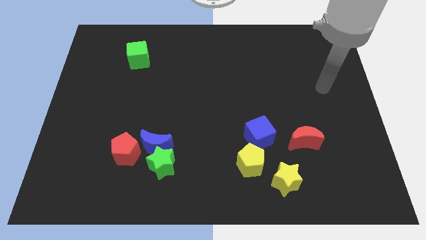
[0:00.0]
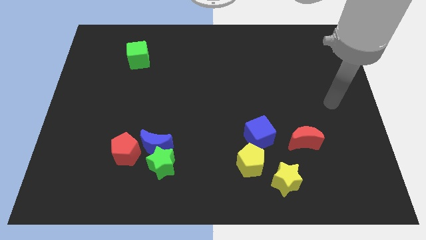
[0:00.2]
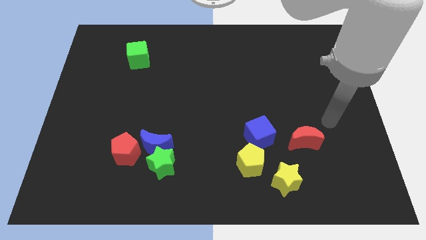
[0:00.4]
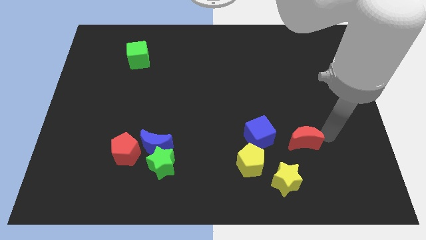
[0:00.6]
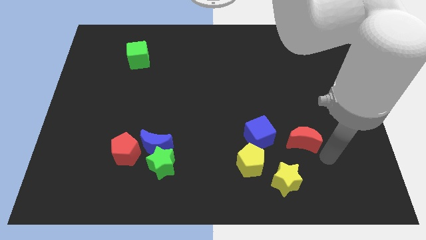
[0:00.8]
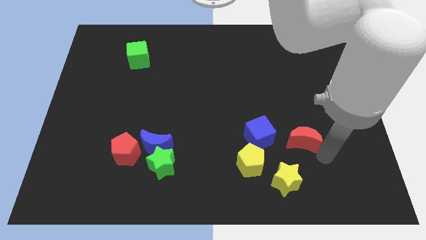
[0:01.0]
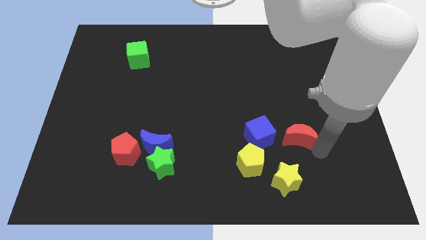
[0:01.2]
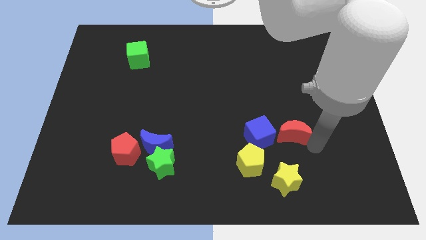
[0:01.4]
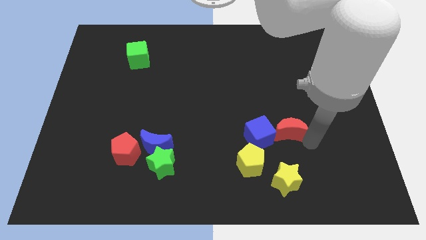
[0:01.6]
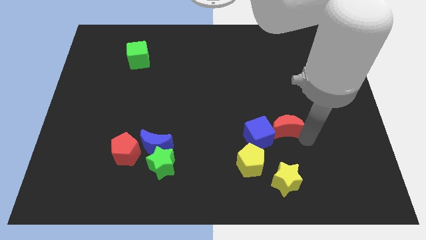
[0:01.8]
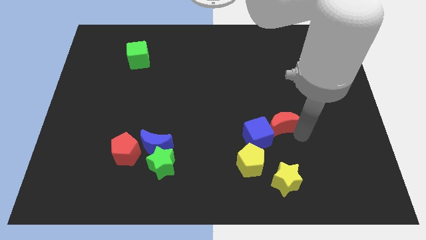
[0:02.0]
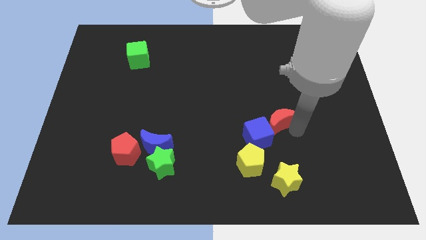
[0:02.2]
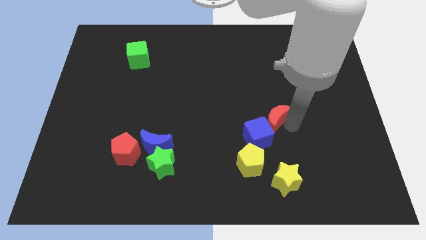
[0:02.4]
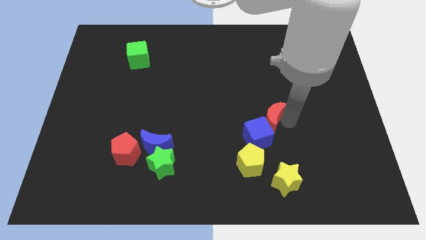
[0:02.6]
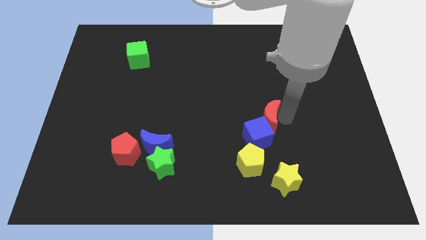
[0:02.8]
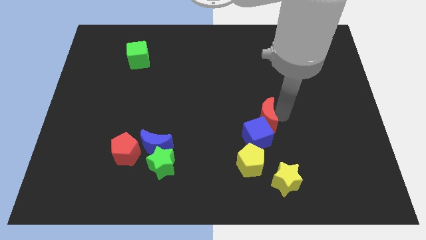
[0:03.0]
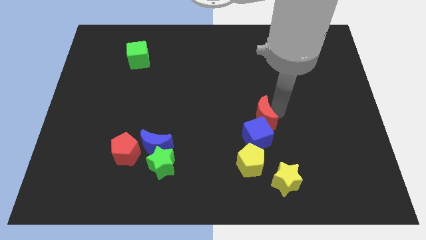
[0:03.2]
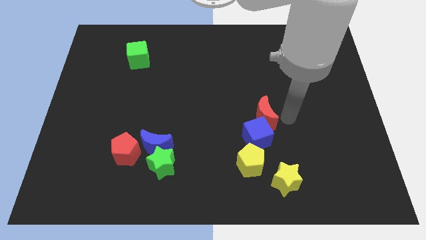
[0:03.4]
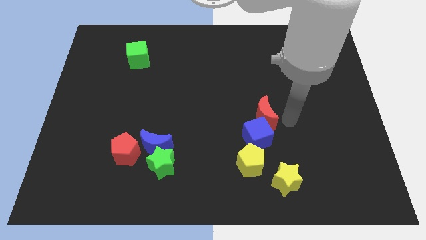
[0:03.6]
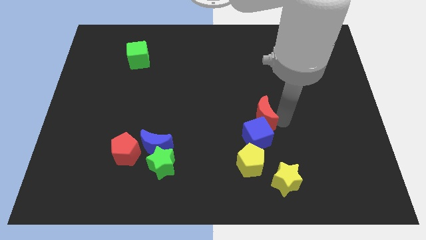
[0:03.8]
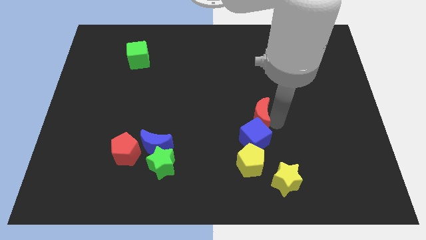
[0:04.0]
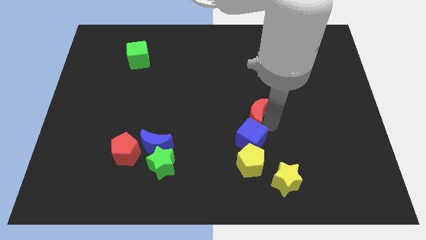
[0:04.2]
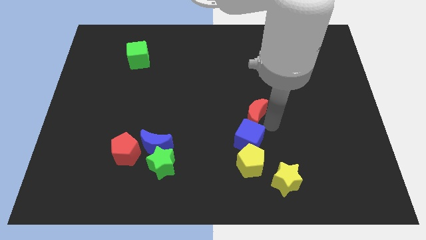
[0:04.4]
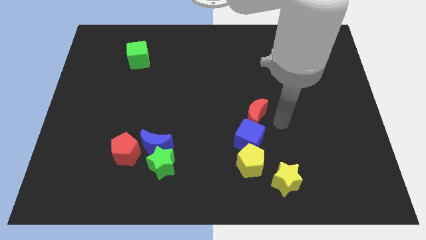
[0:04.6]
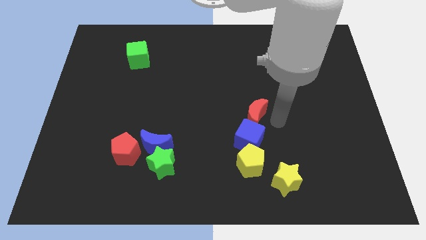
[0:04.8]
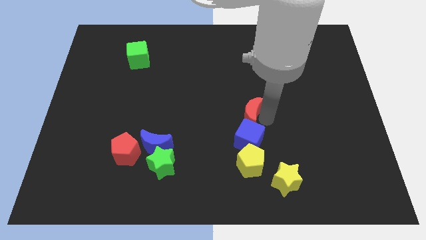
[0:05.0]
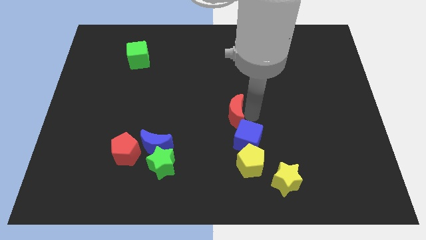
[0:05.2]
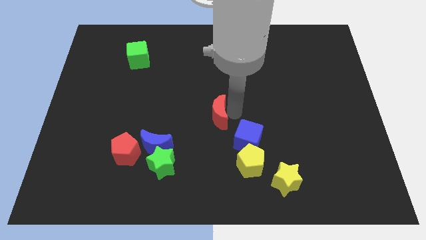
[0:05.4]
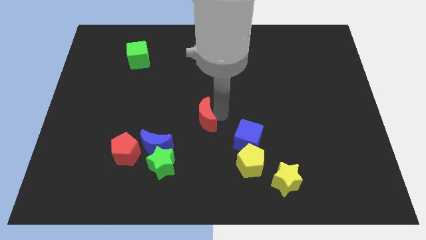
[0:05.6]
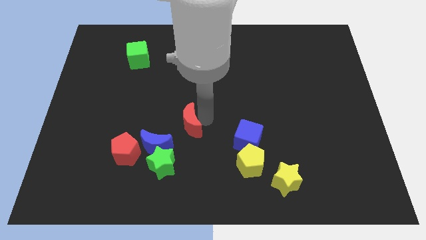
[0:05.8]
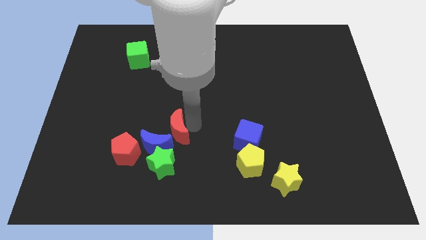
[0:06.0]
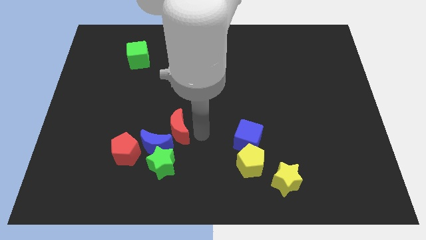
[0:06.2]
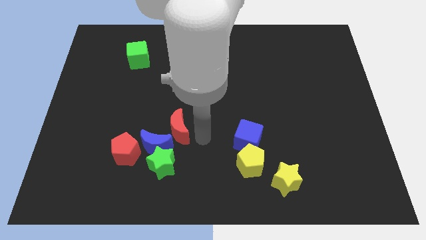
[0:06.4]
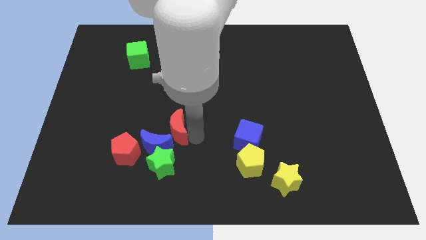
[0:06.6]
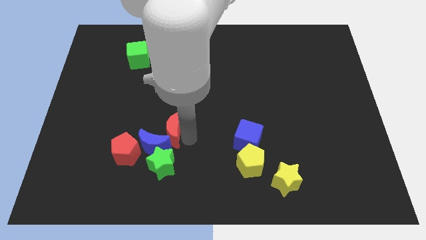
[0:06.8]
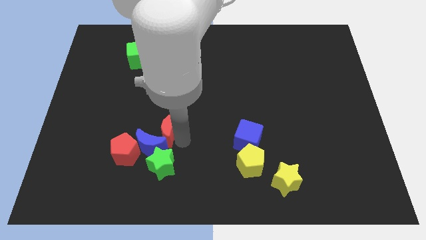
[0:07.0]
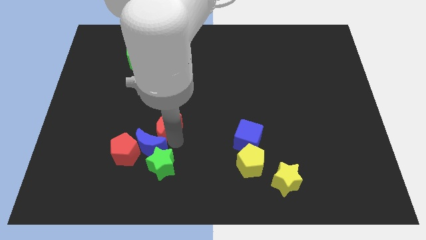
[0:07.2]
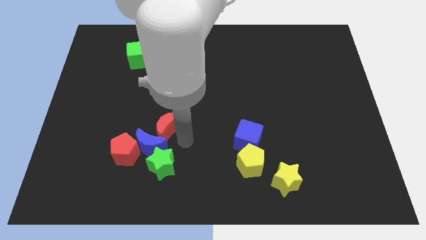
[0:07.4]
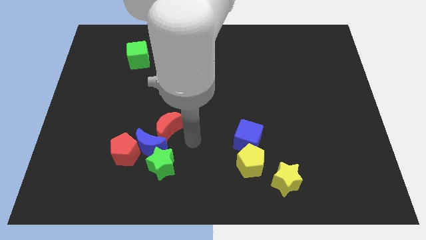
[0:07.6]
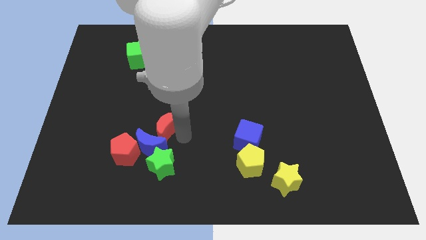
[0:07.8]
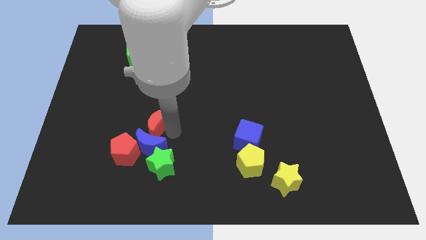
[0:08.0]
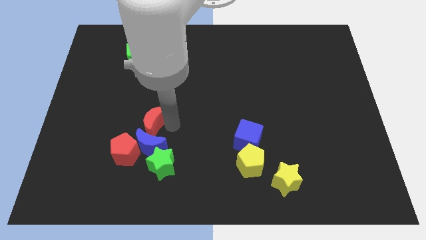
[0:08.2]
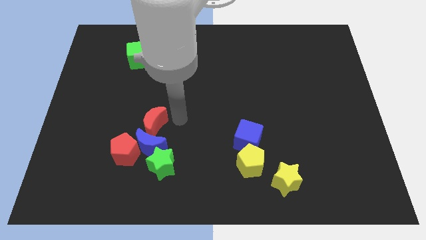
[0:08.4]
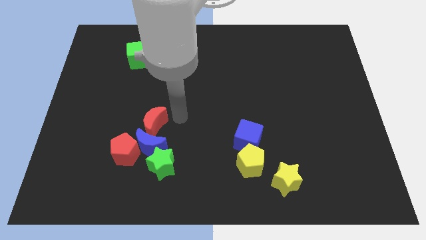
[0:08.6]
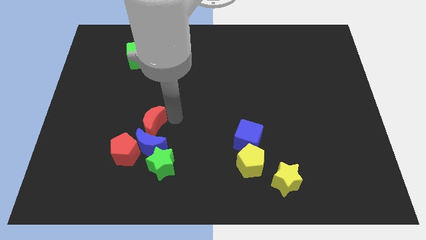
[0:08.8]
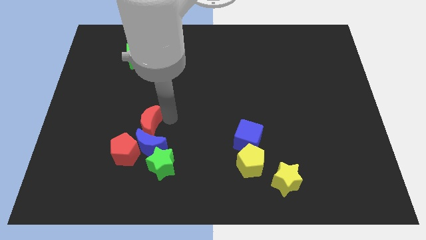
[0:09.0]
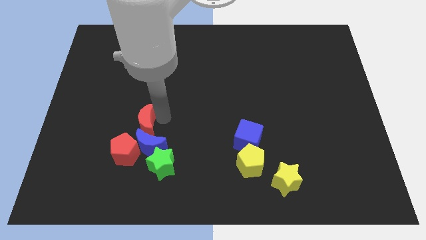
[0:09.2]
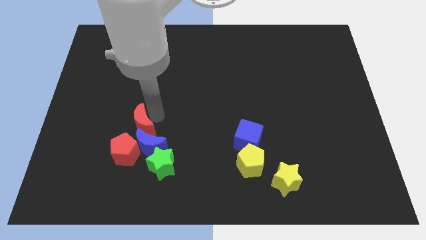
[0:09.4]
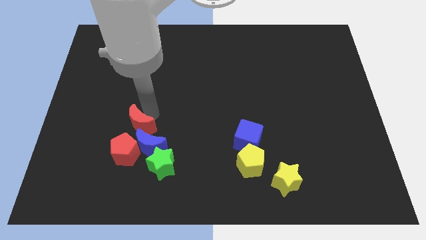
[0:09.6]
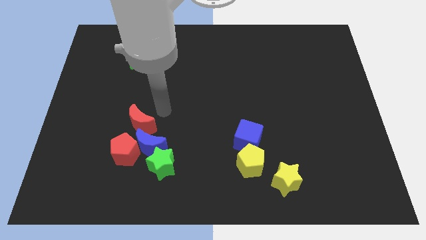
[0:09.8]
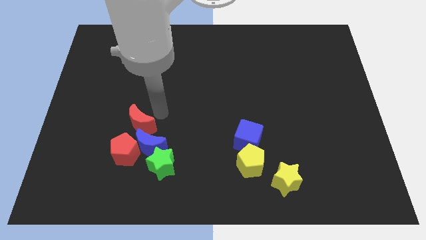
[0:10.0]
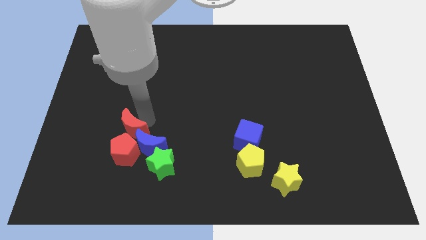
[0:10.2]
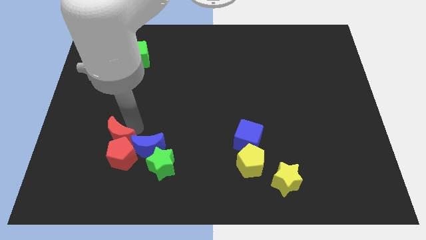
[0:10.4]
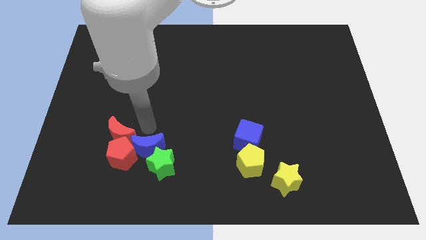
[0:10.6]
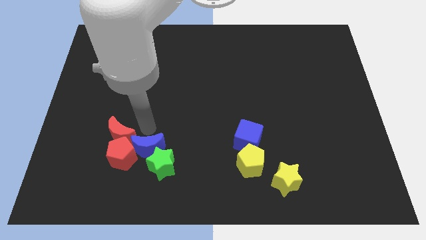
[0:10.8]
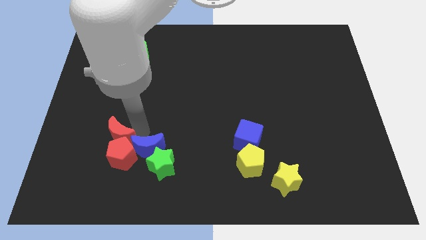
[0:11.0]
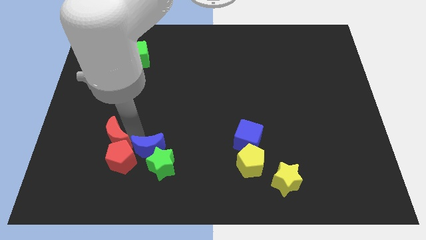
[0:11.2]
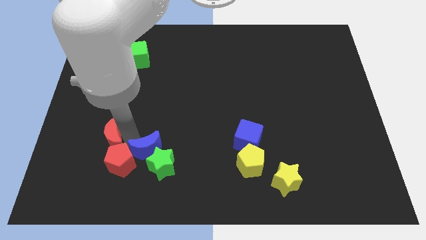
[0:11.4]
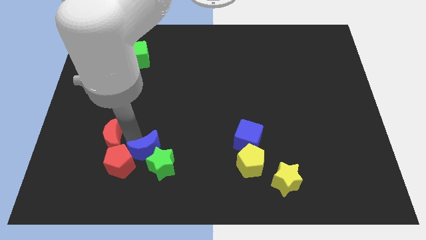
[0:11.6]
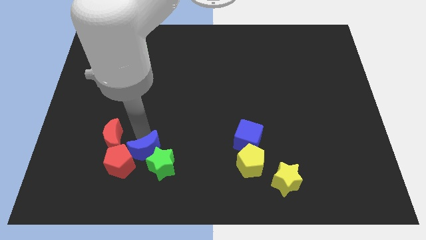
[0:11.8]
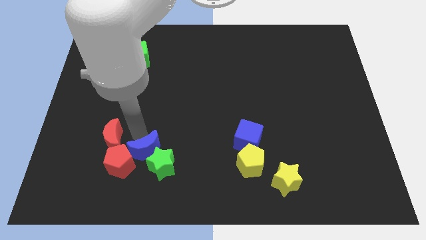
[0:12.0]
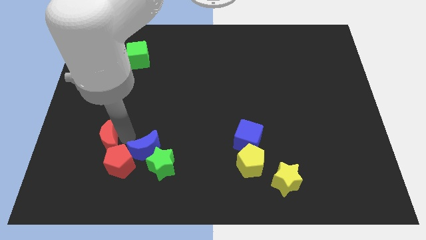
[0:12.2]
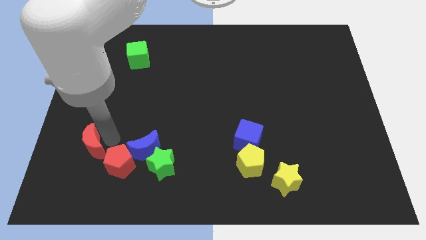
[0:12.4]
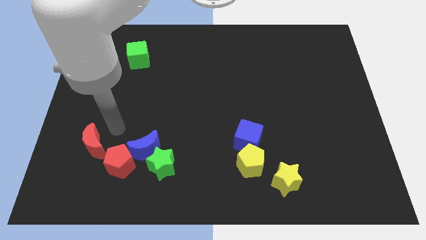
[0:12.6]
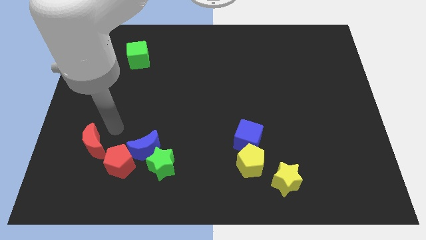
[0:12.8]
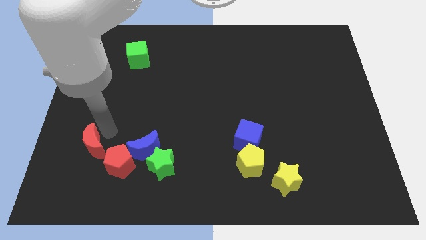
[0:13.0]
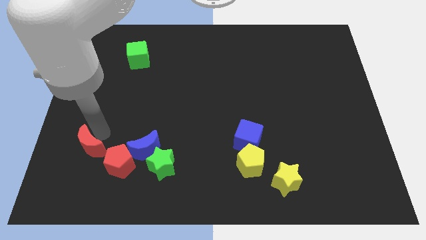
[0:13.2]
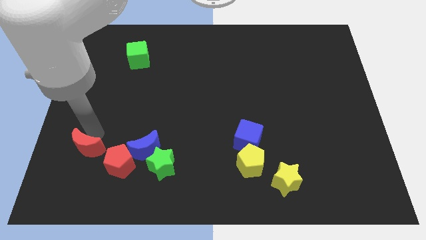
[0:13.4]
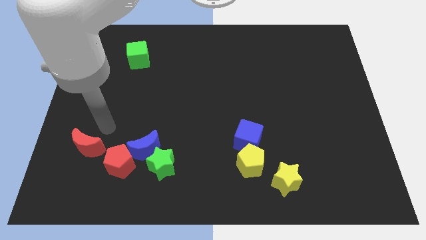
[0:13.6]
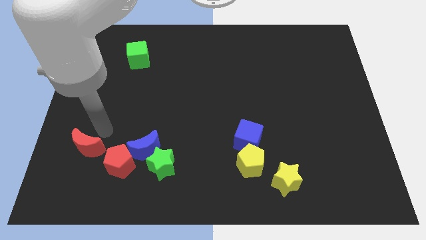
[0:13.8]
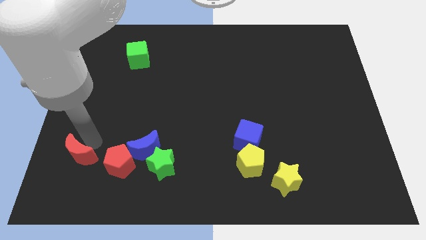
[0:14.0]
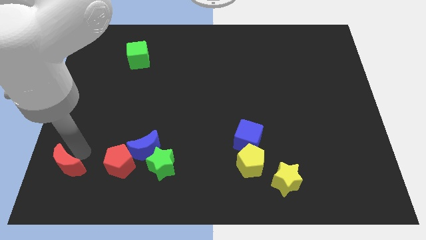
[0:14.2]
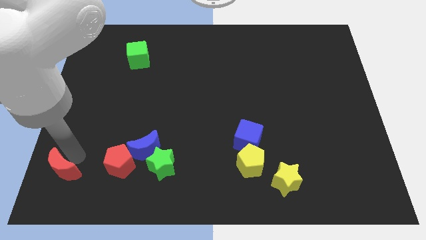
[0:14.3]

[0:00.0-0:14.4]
move the red moon to the lower left corner
